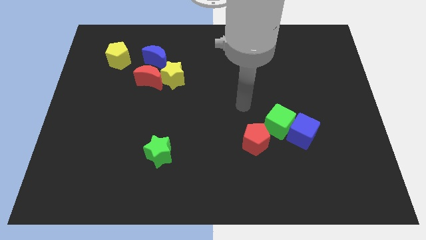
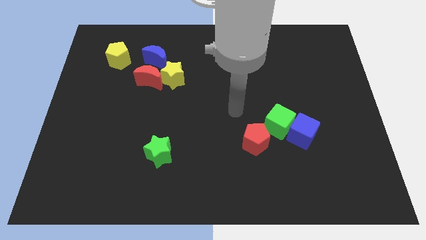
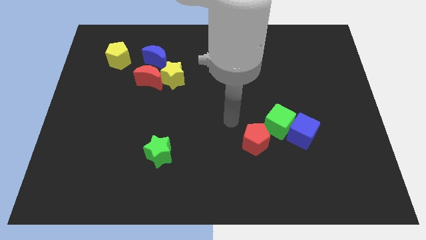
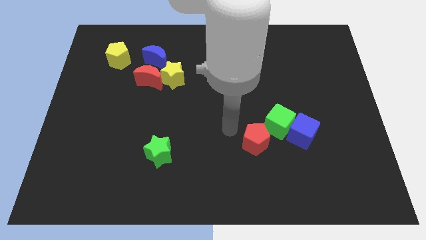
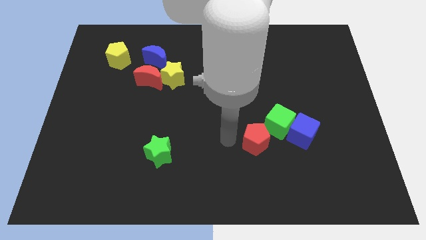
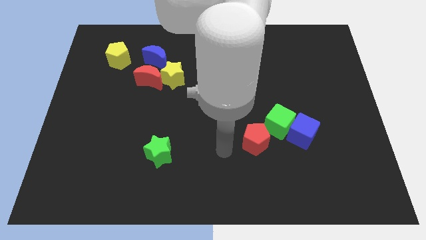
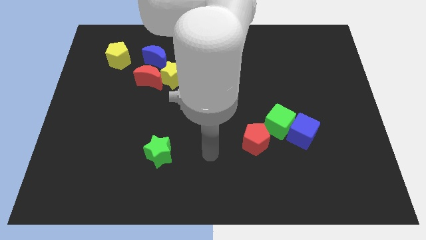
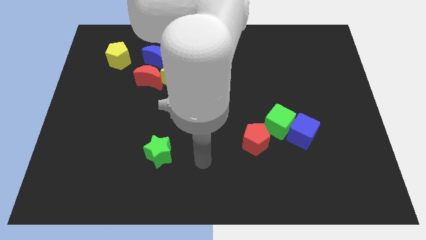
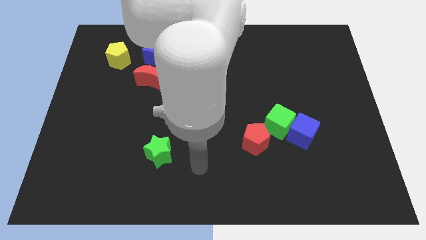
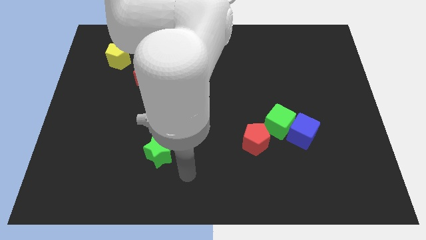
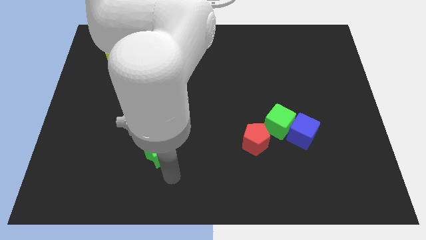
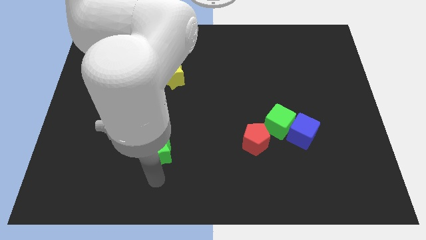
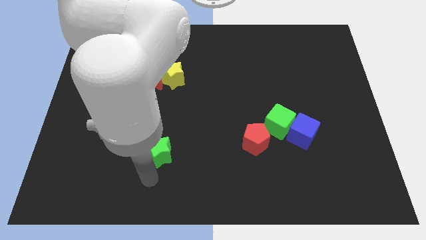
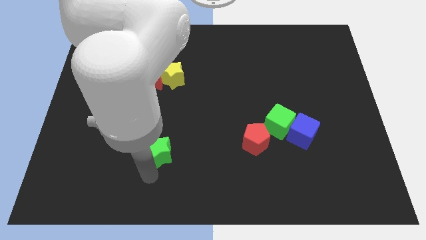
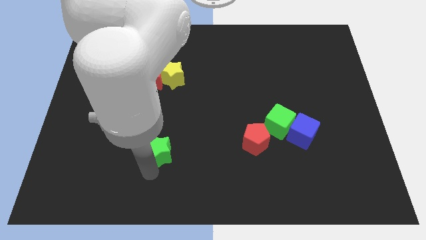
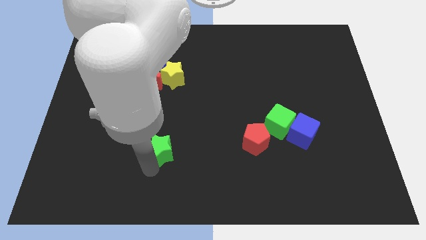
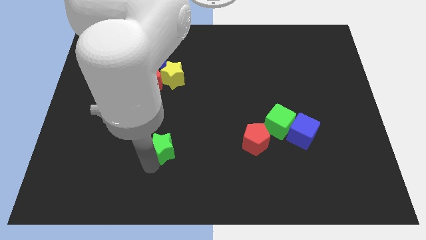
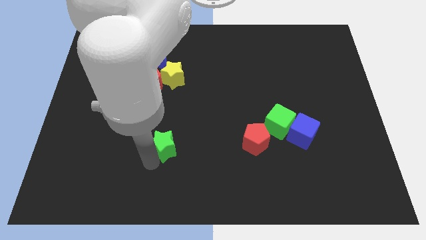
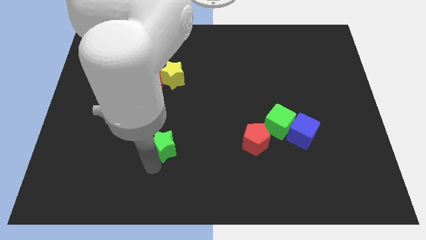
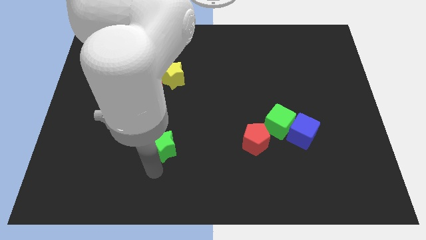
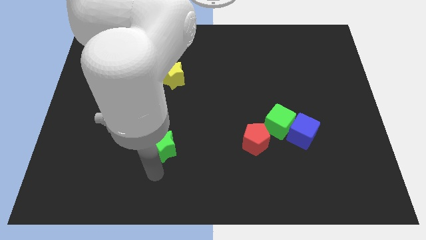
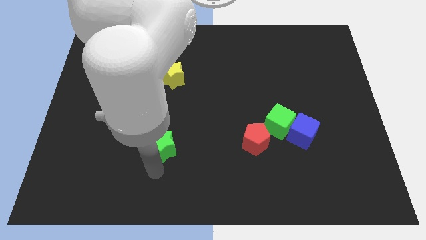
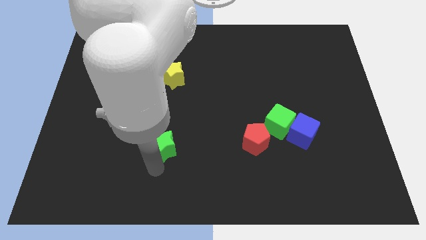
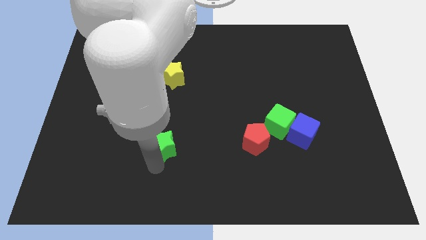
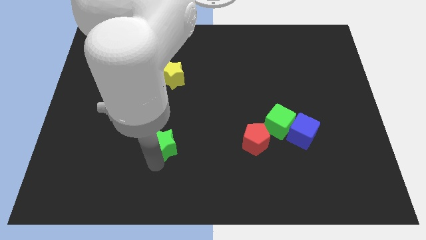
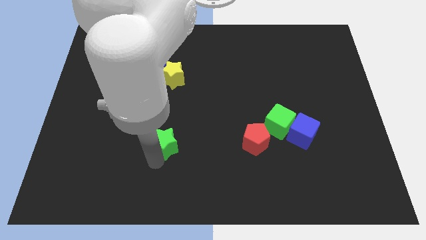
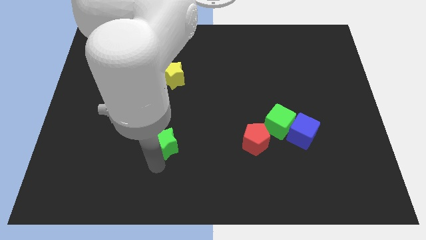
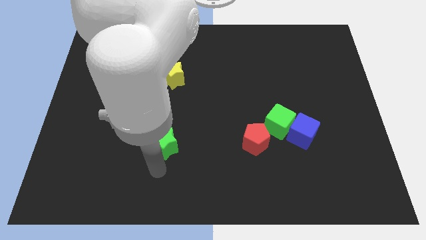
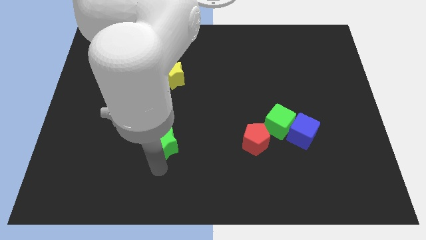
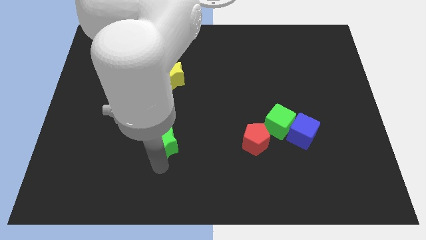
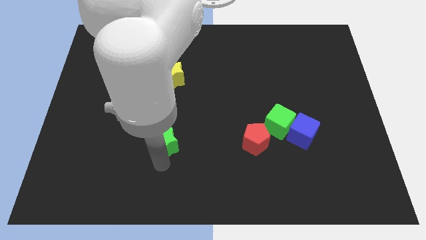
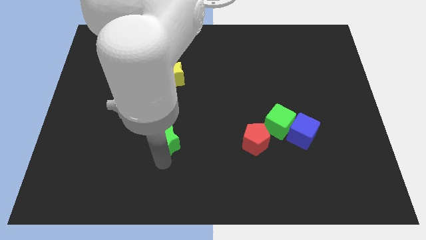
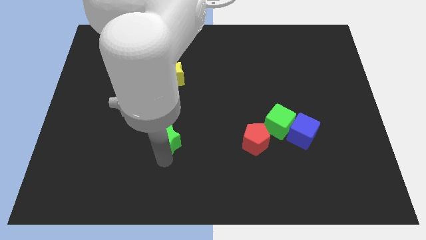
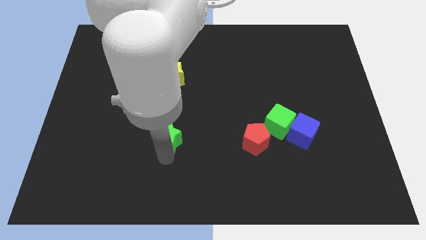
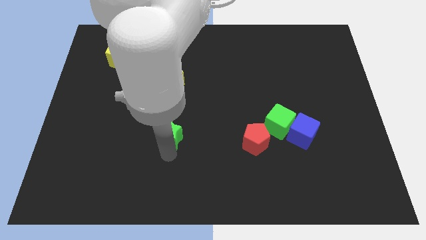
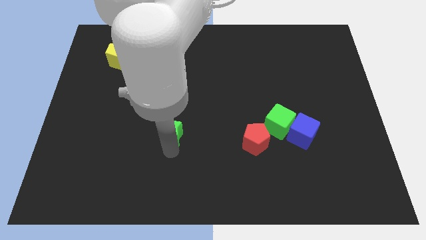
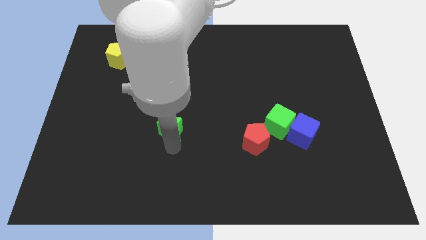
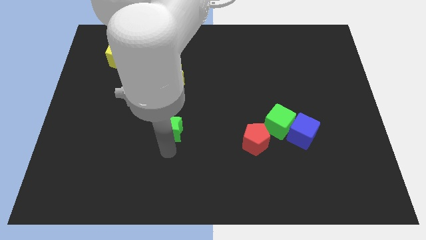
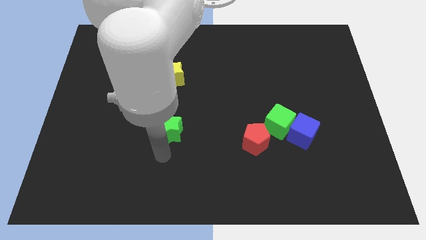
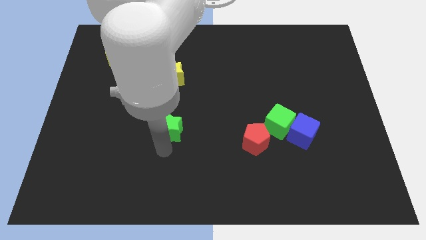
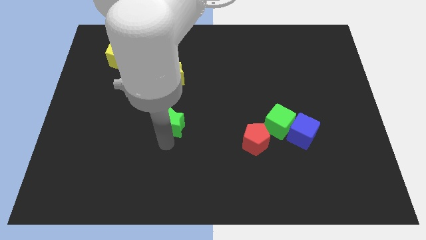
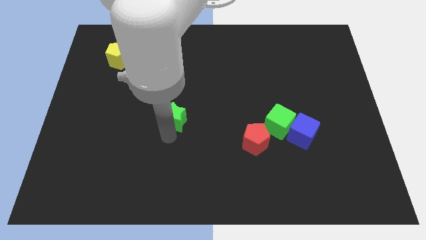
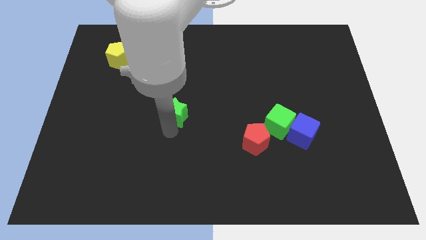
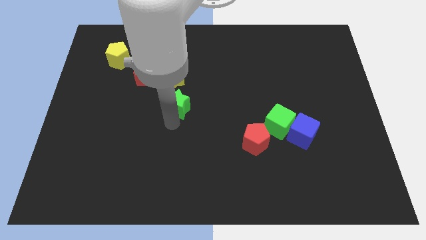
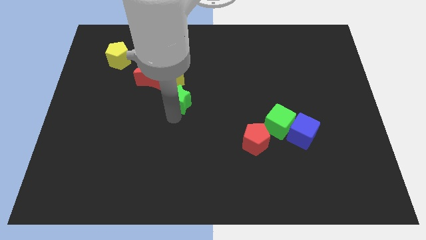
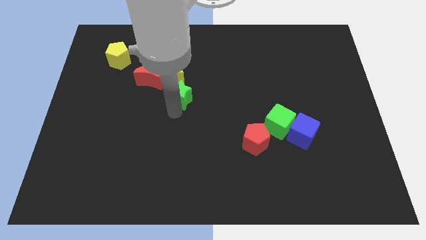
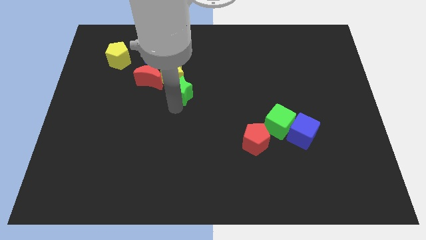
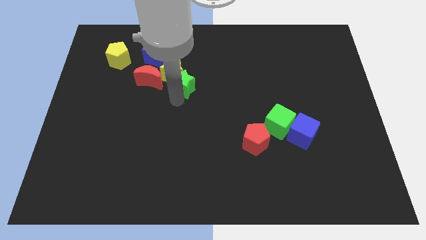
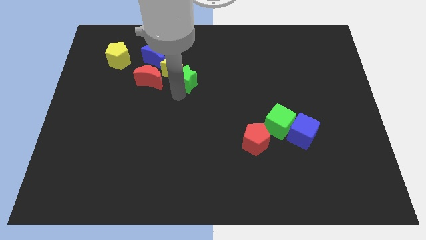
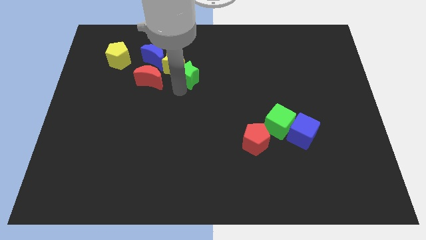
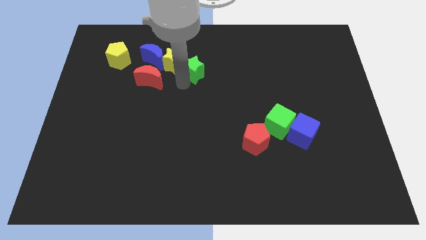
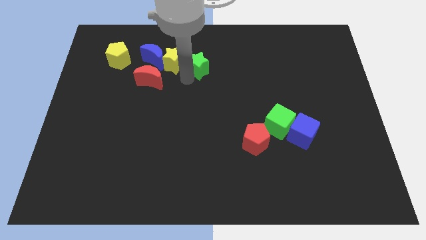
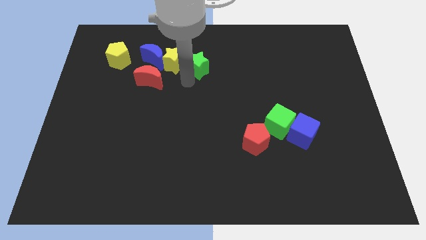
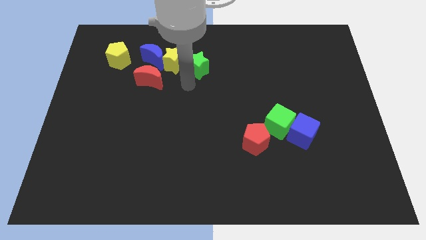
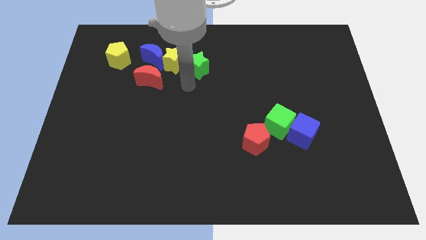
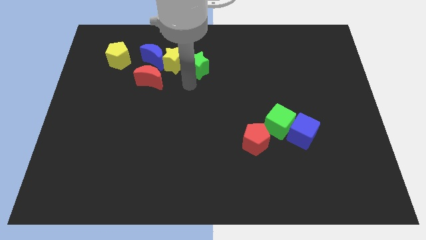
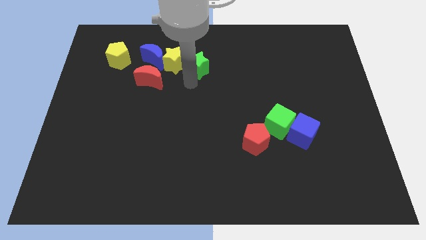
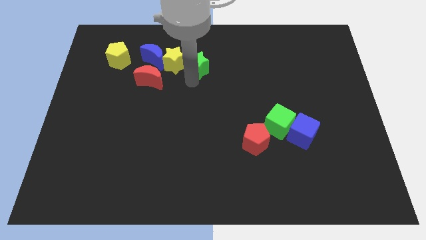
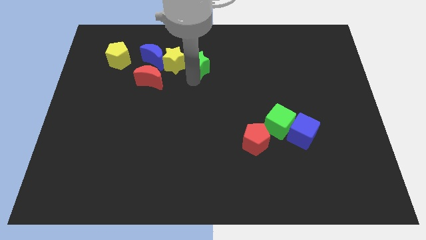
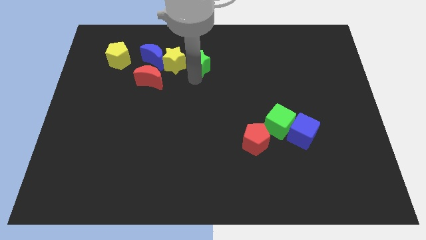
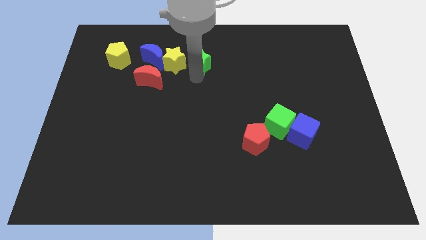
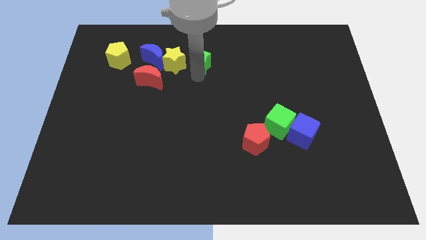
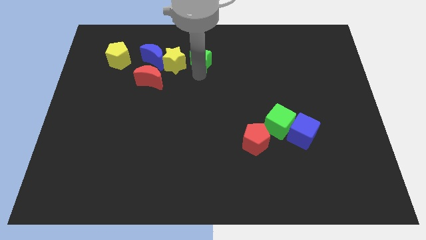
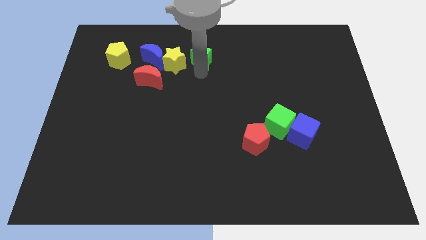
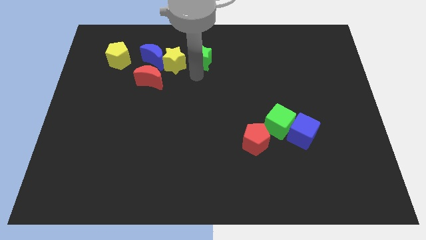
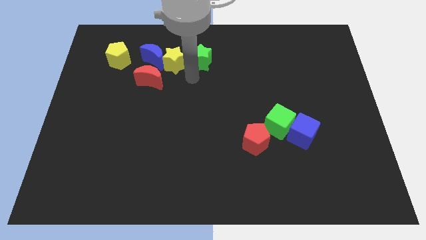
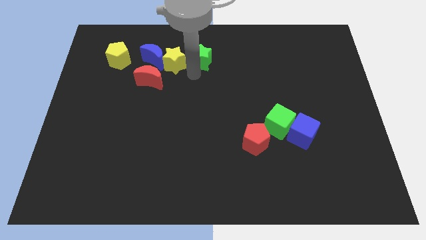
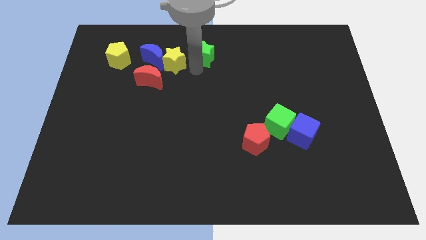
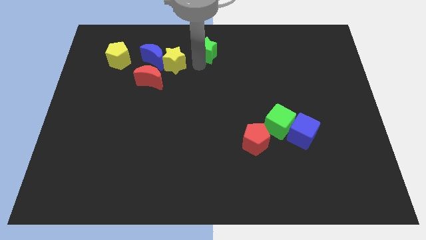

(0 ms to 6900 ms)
slide the green star to the top side
